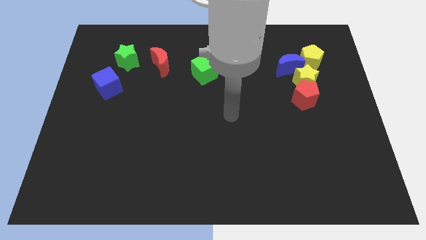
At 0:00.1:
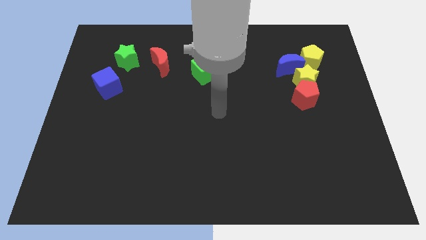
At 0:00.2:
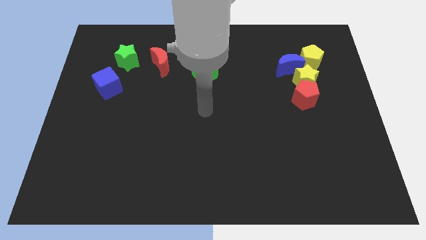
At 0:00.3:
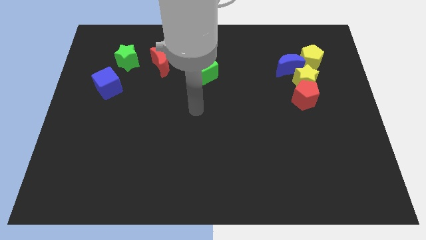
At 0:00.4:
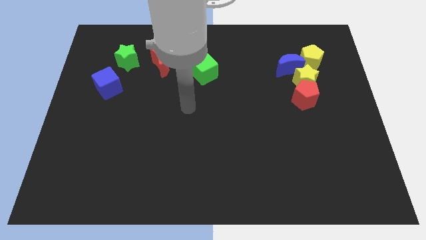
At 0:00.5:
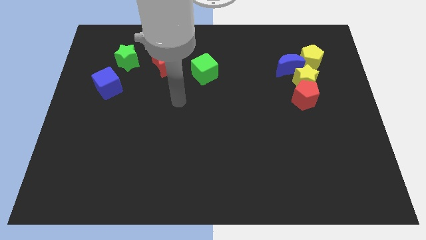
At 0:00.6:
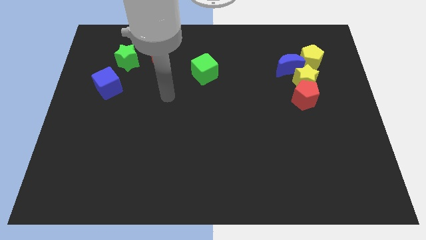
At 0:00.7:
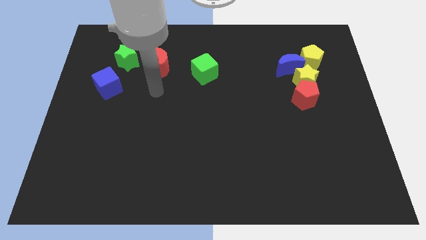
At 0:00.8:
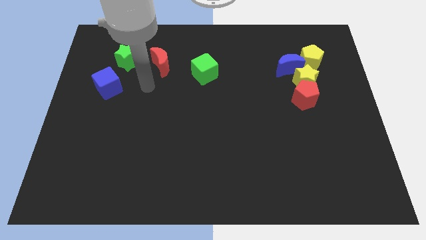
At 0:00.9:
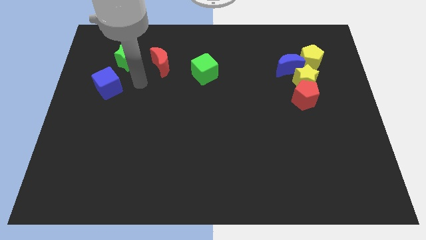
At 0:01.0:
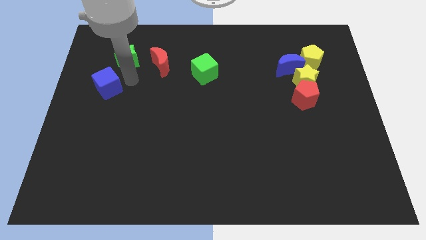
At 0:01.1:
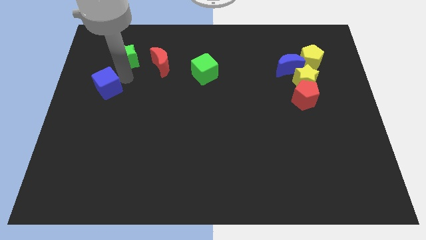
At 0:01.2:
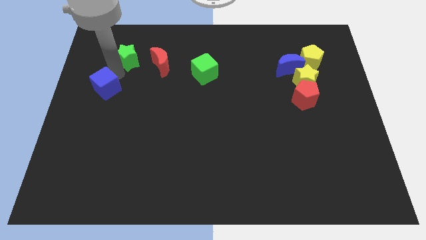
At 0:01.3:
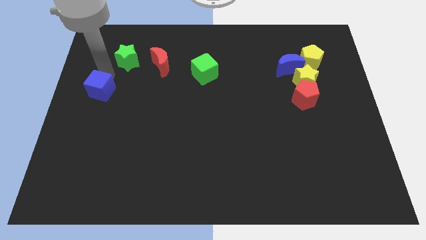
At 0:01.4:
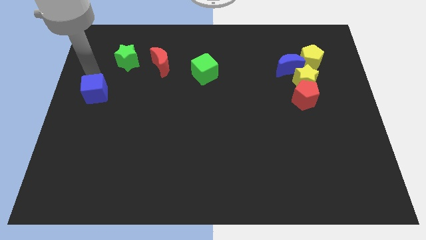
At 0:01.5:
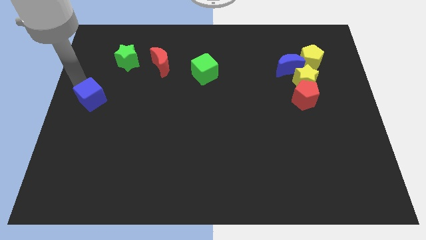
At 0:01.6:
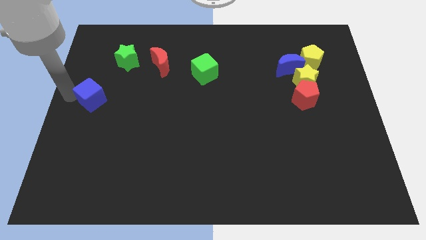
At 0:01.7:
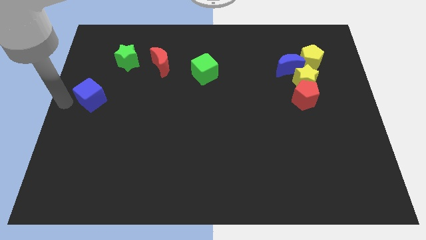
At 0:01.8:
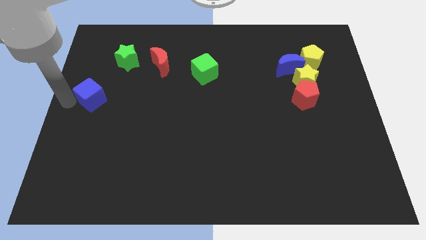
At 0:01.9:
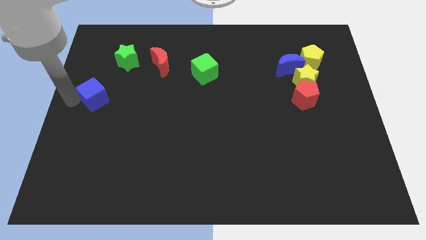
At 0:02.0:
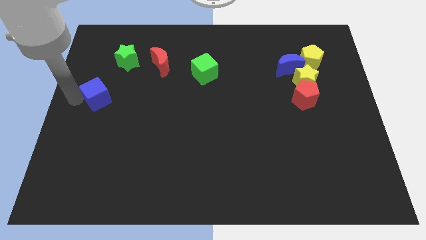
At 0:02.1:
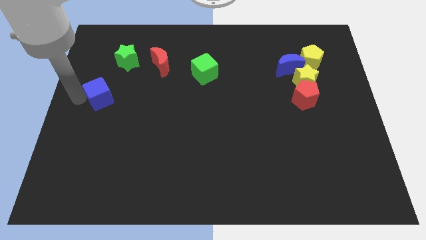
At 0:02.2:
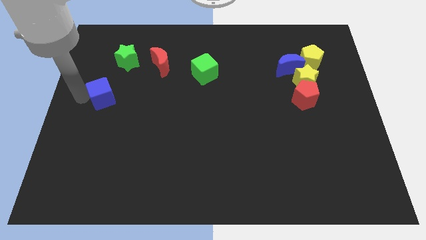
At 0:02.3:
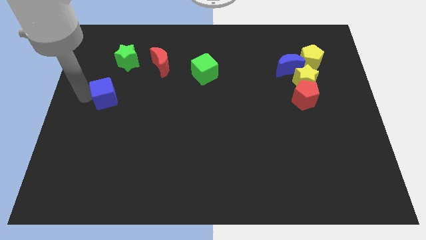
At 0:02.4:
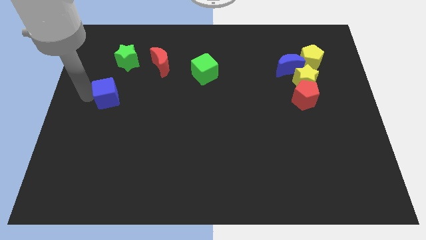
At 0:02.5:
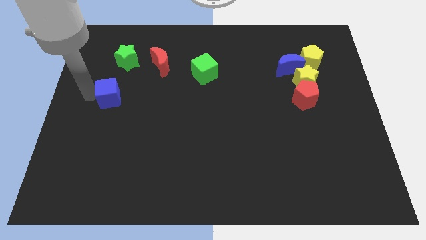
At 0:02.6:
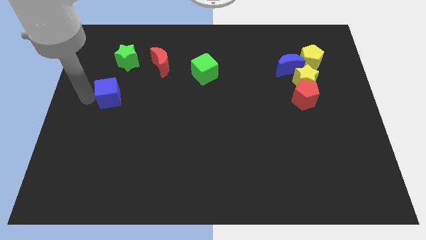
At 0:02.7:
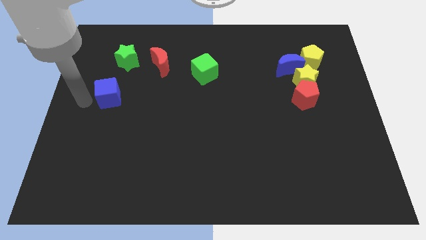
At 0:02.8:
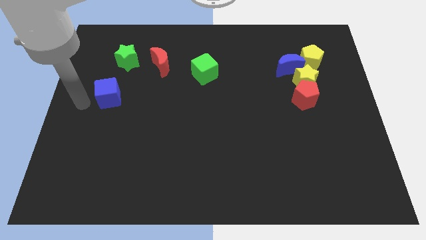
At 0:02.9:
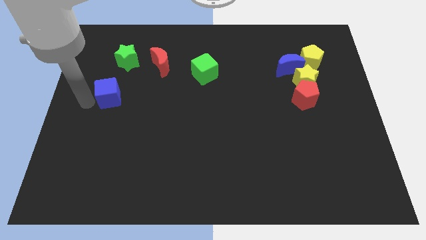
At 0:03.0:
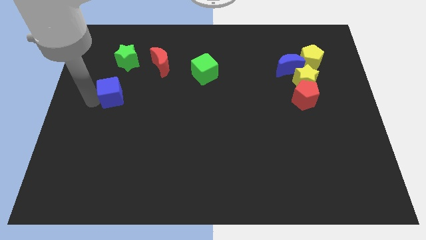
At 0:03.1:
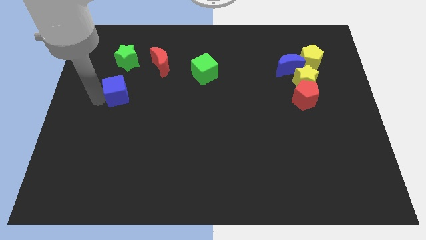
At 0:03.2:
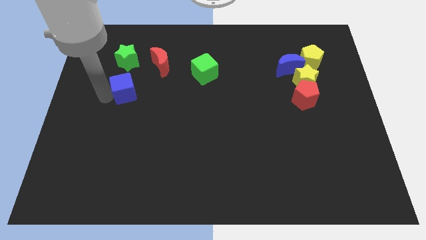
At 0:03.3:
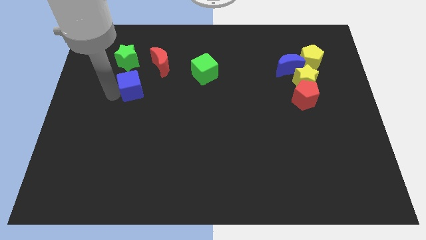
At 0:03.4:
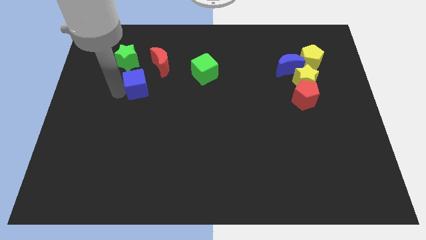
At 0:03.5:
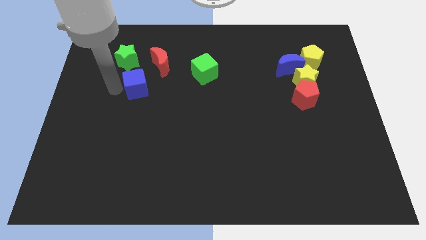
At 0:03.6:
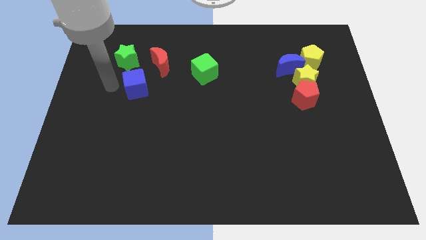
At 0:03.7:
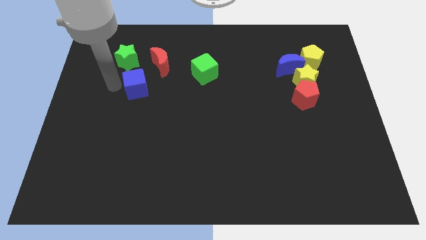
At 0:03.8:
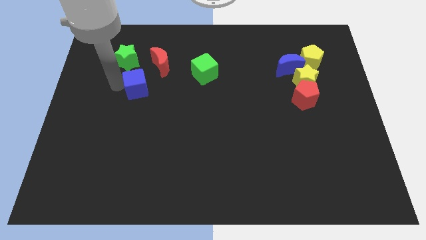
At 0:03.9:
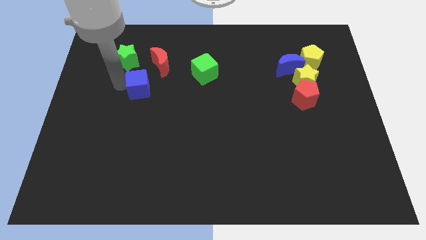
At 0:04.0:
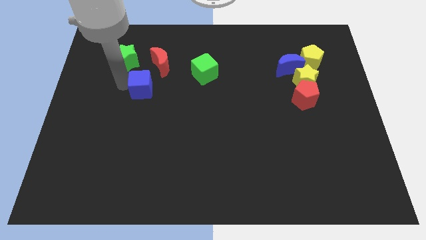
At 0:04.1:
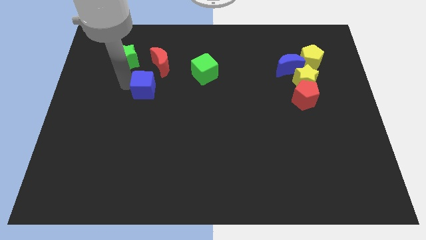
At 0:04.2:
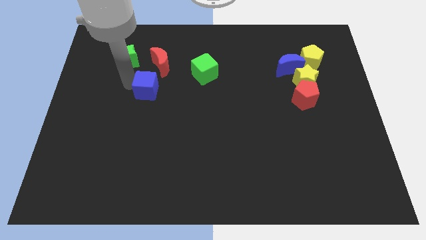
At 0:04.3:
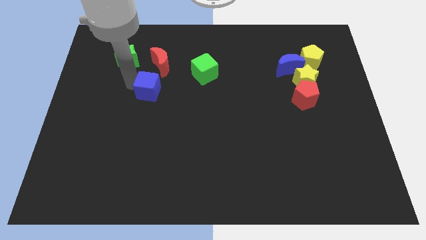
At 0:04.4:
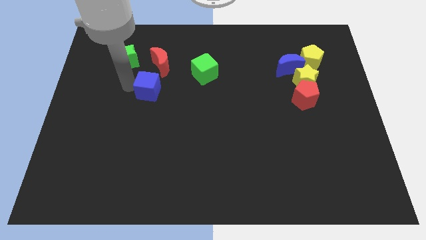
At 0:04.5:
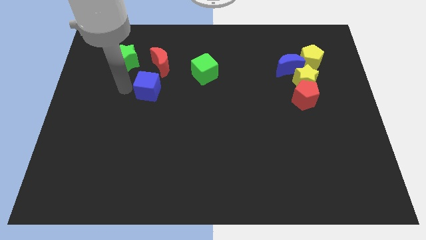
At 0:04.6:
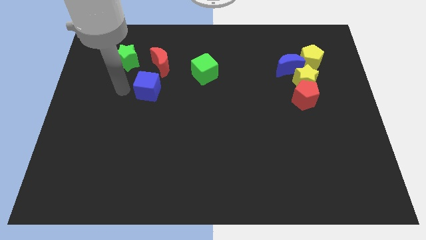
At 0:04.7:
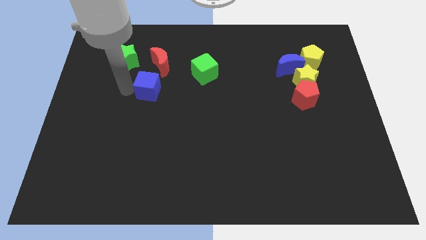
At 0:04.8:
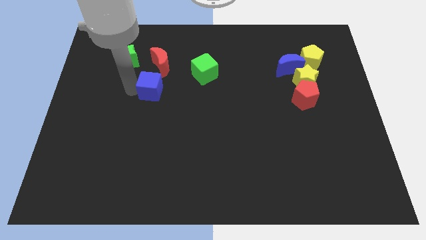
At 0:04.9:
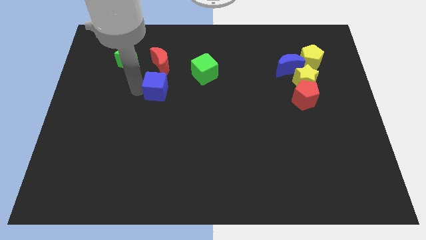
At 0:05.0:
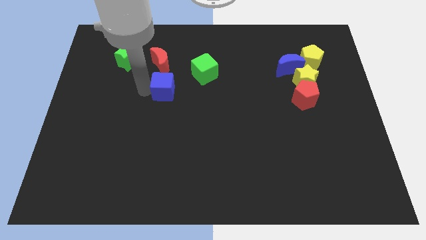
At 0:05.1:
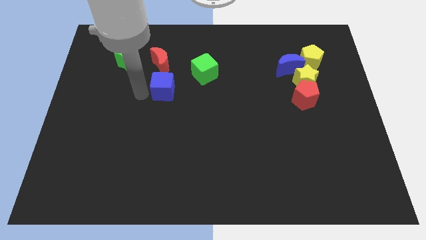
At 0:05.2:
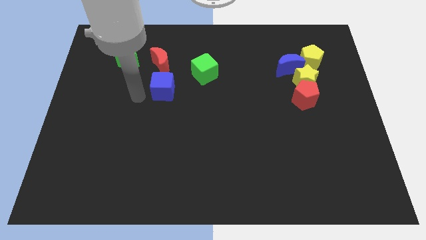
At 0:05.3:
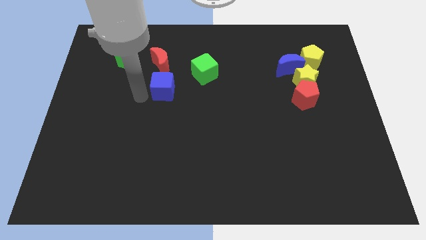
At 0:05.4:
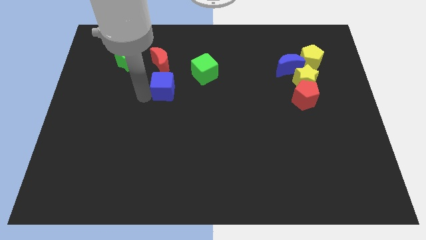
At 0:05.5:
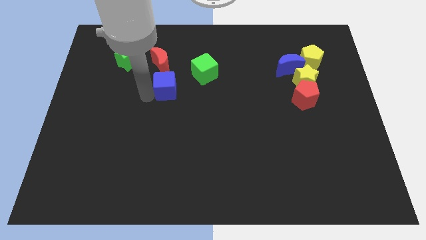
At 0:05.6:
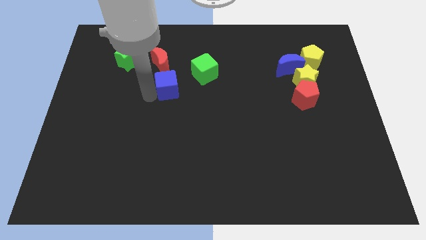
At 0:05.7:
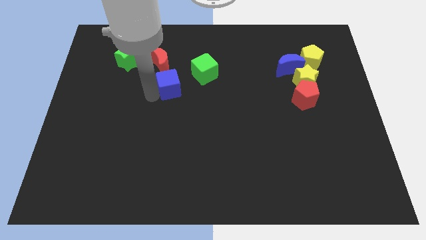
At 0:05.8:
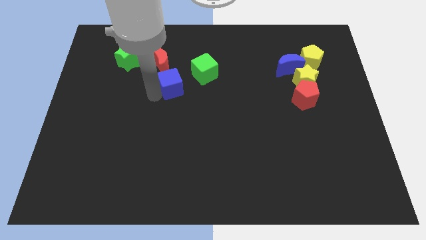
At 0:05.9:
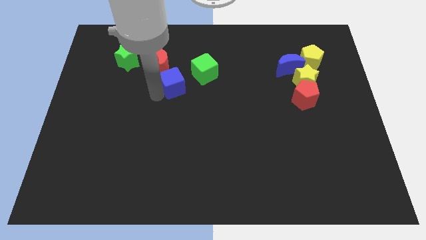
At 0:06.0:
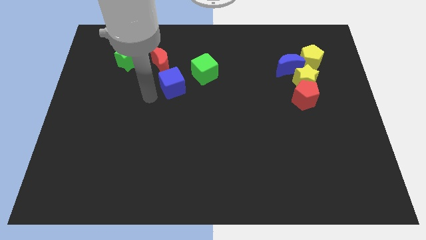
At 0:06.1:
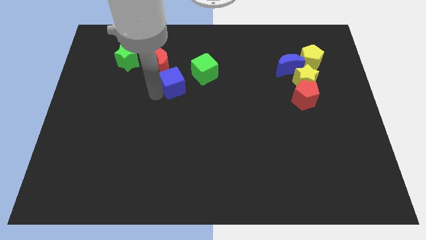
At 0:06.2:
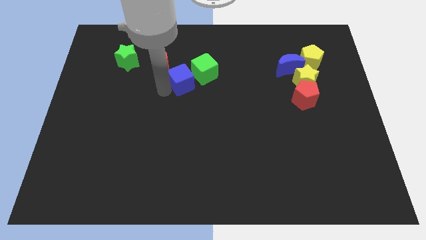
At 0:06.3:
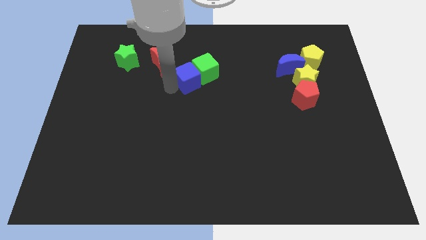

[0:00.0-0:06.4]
push the blue cube to the green cube
